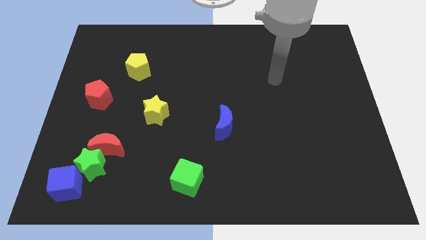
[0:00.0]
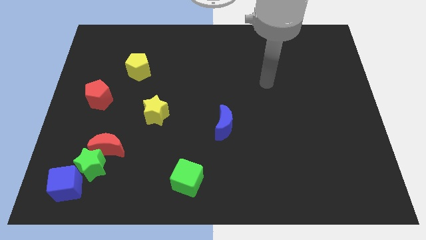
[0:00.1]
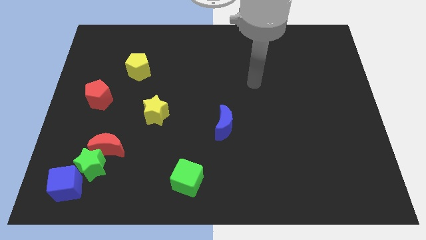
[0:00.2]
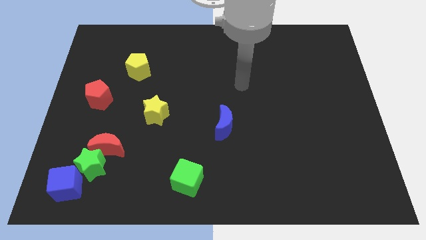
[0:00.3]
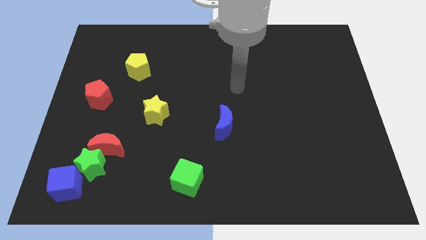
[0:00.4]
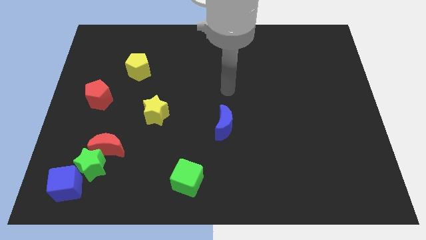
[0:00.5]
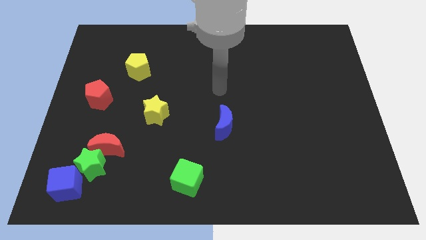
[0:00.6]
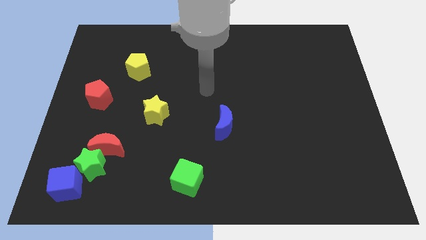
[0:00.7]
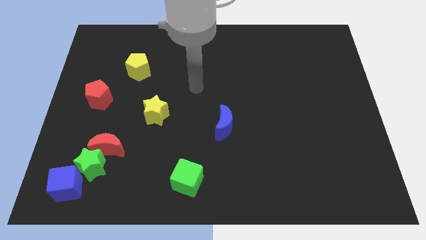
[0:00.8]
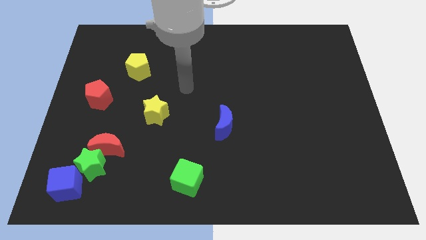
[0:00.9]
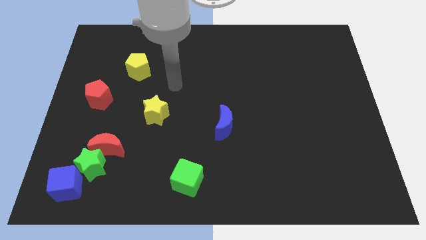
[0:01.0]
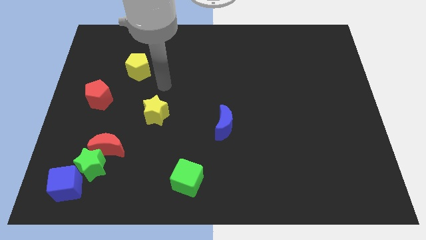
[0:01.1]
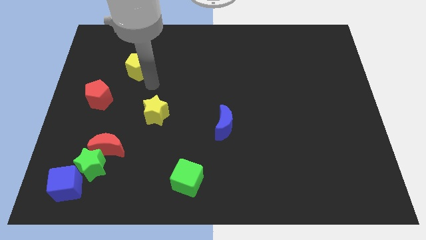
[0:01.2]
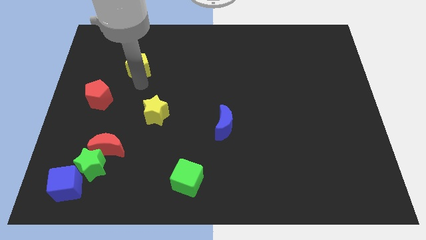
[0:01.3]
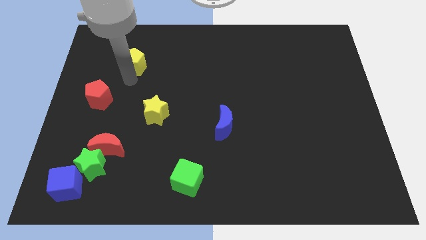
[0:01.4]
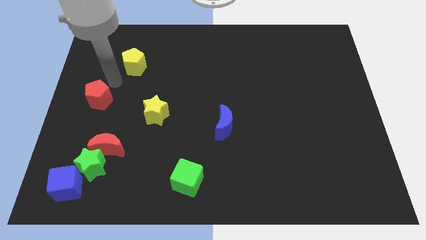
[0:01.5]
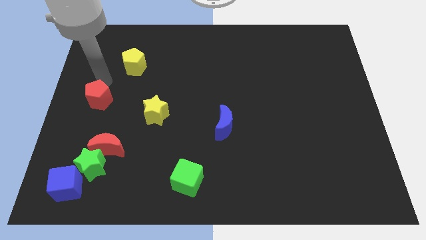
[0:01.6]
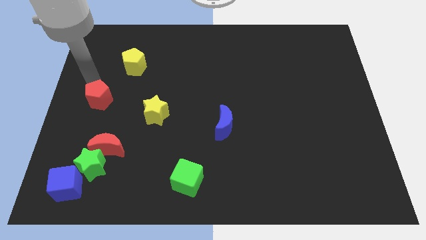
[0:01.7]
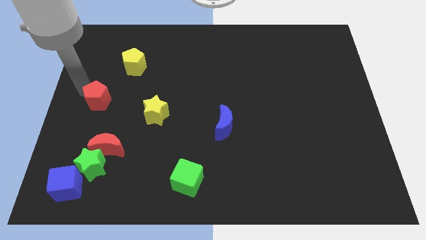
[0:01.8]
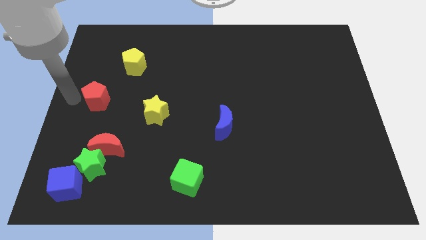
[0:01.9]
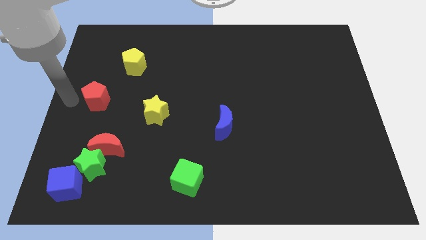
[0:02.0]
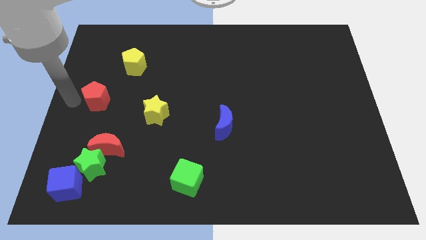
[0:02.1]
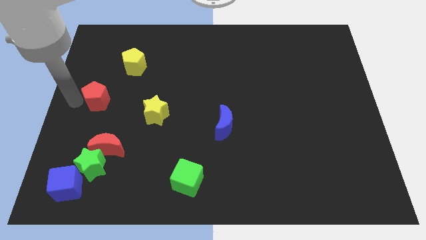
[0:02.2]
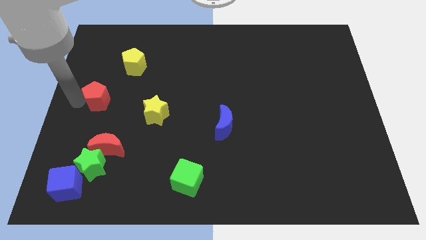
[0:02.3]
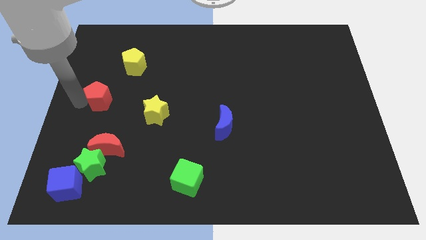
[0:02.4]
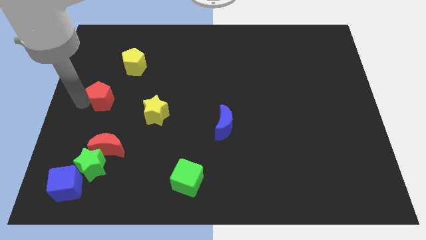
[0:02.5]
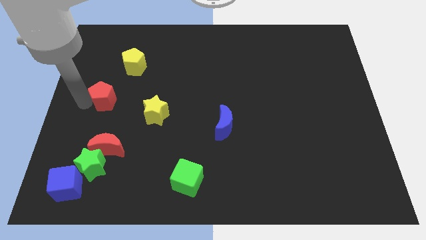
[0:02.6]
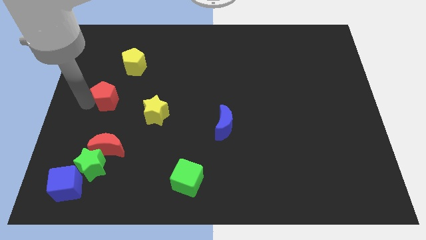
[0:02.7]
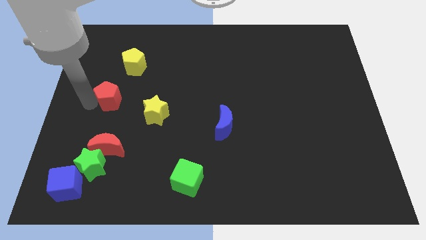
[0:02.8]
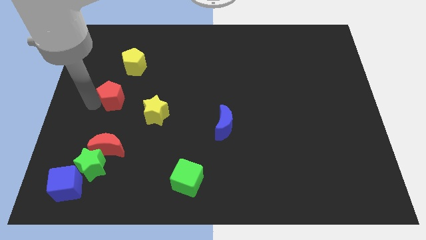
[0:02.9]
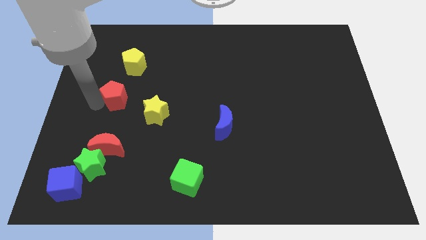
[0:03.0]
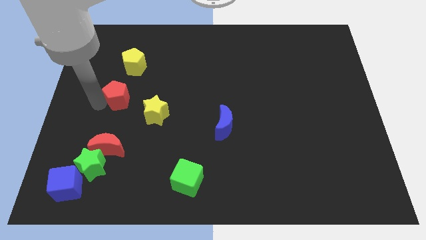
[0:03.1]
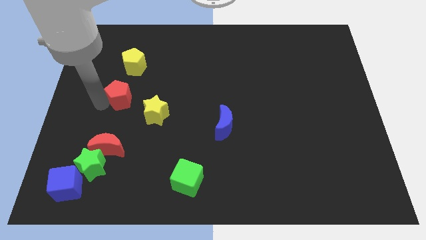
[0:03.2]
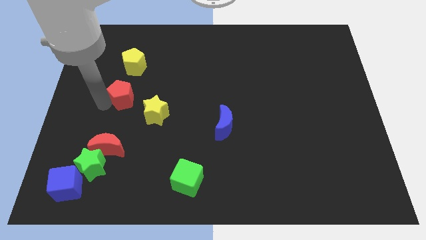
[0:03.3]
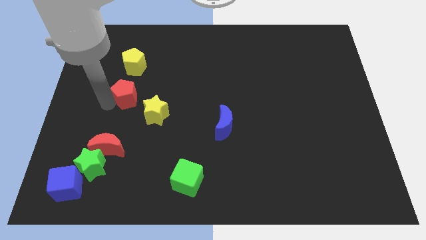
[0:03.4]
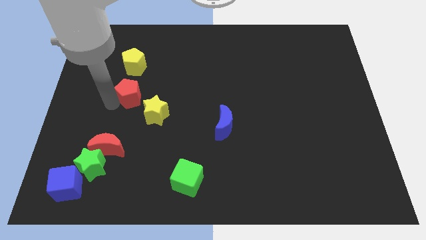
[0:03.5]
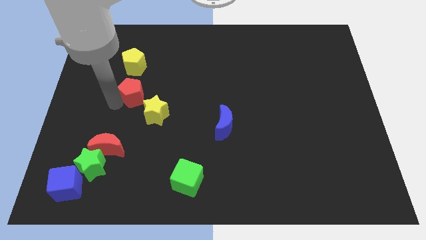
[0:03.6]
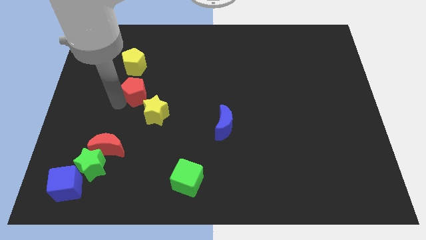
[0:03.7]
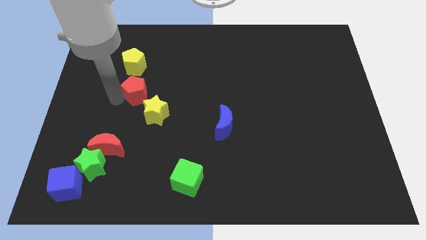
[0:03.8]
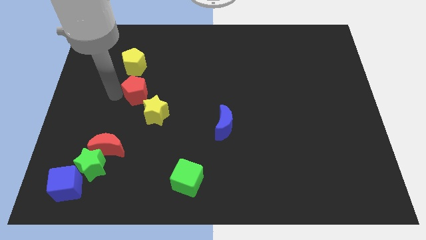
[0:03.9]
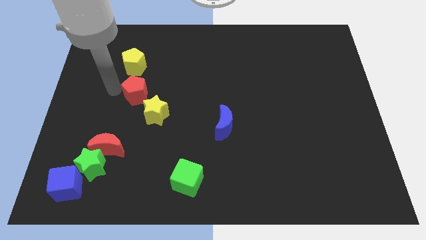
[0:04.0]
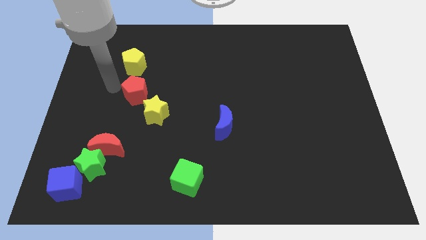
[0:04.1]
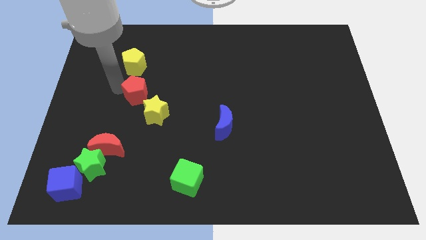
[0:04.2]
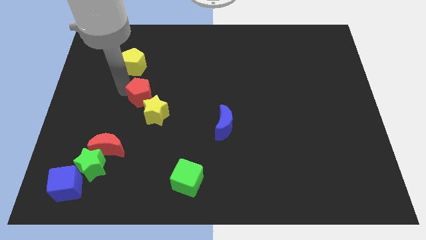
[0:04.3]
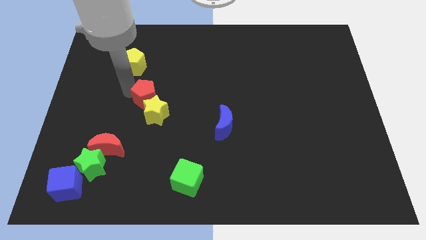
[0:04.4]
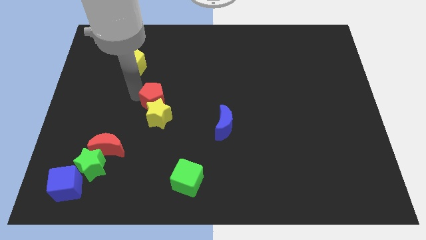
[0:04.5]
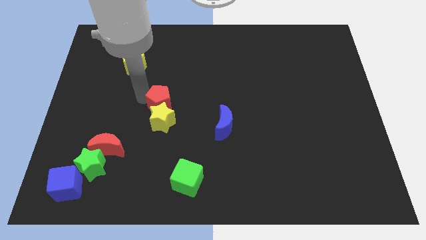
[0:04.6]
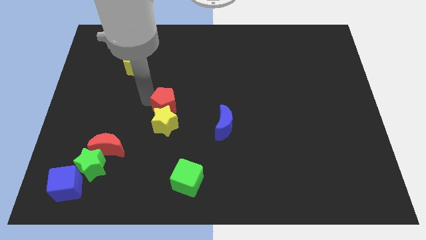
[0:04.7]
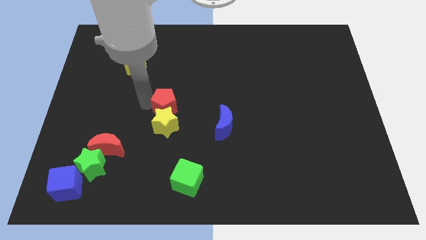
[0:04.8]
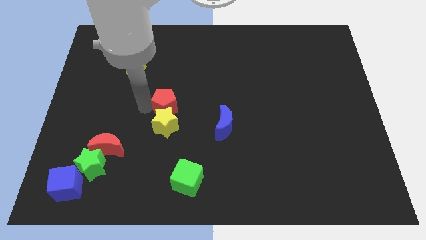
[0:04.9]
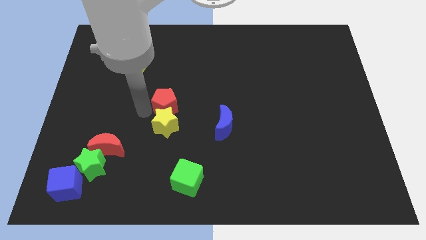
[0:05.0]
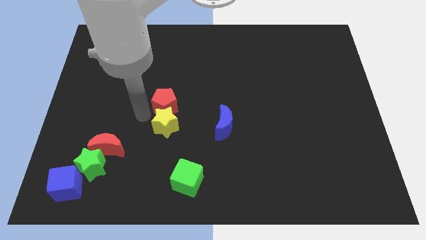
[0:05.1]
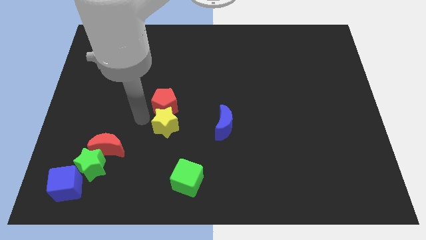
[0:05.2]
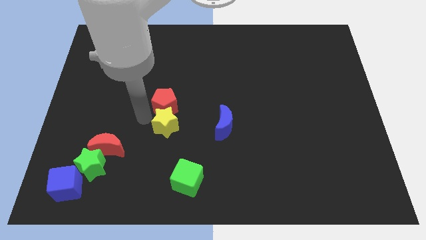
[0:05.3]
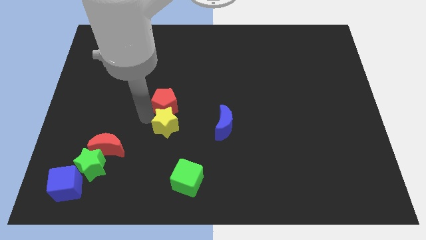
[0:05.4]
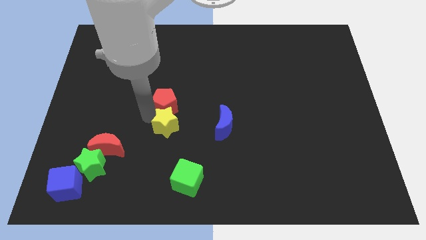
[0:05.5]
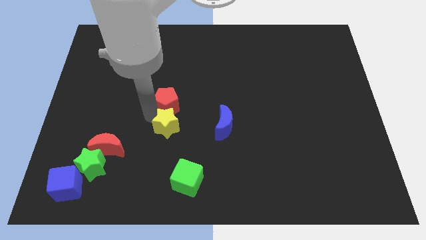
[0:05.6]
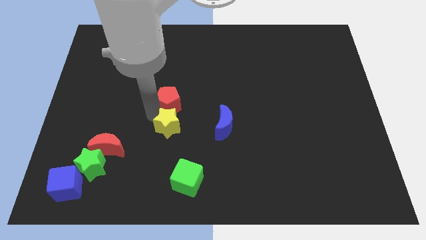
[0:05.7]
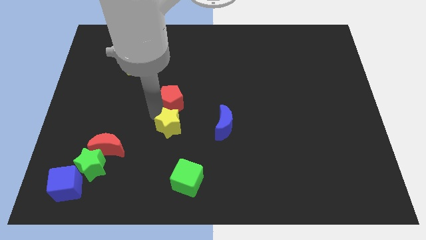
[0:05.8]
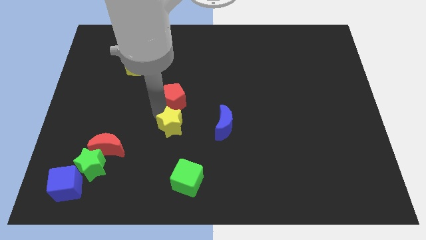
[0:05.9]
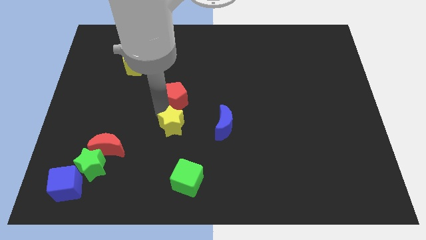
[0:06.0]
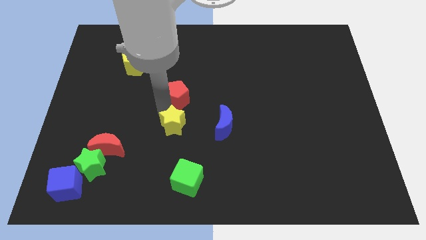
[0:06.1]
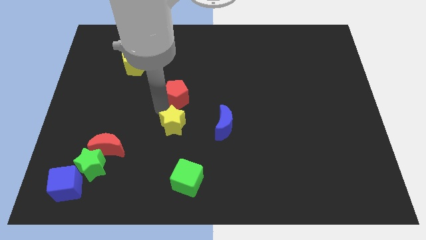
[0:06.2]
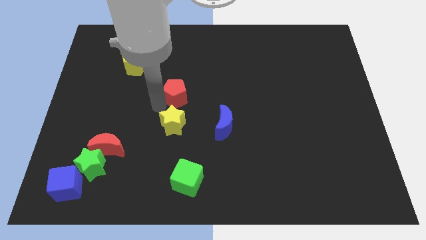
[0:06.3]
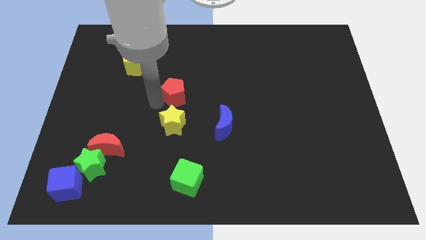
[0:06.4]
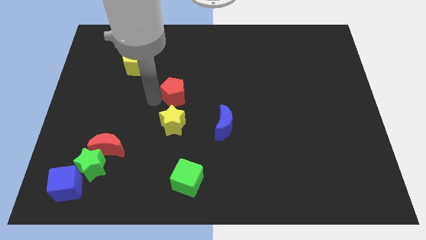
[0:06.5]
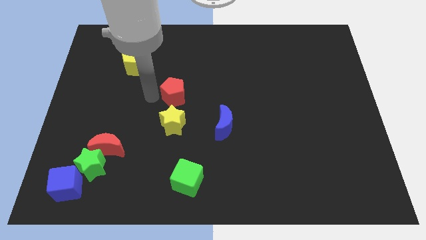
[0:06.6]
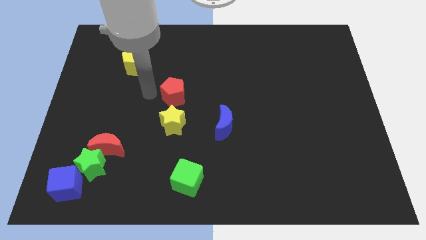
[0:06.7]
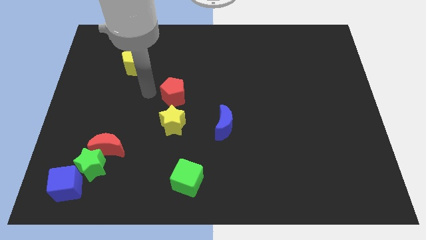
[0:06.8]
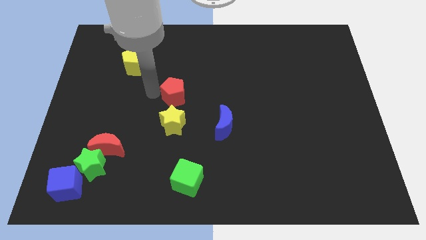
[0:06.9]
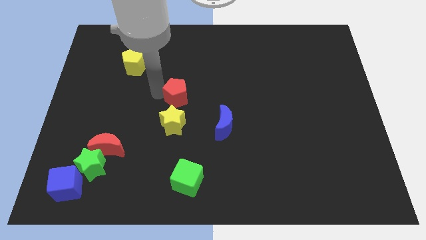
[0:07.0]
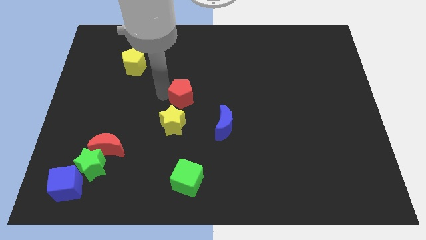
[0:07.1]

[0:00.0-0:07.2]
slide the red pentagon right

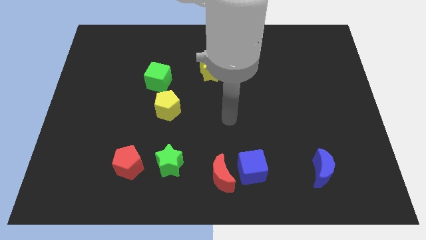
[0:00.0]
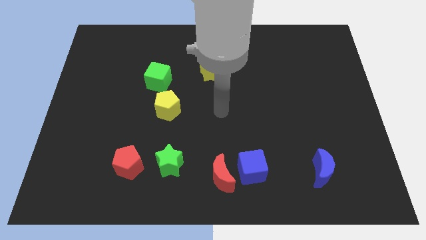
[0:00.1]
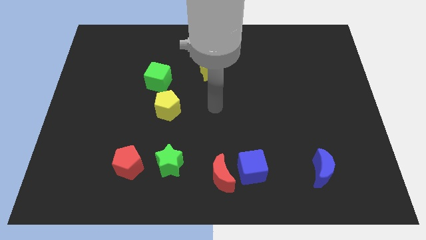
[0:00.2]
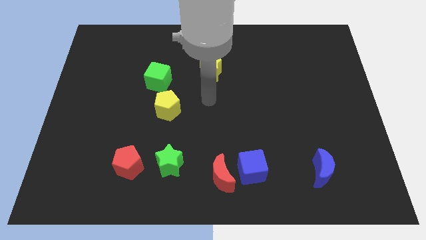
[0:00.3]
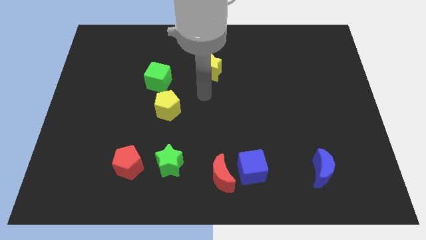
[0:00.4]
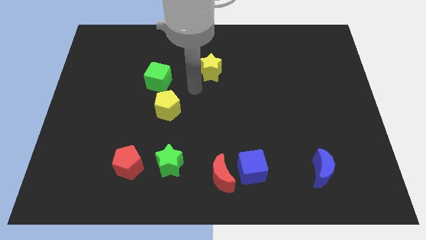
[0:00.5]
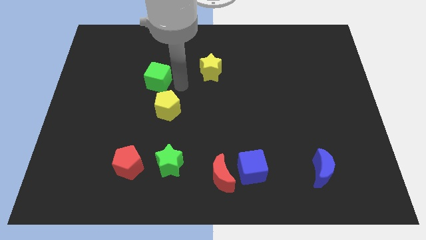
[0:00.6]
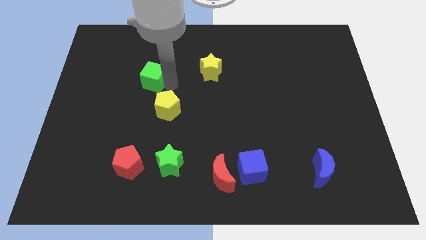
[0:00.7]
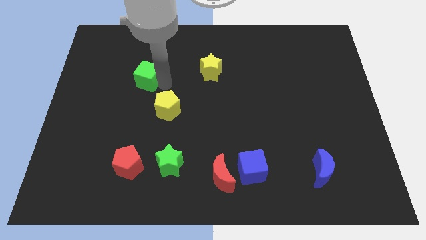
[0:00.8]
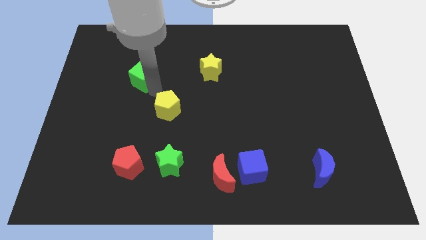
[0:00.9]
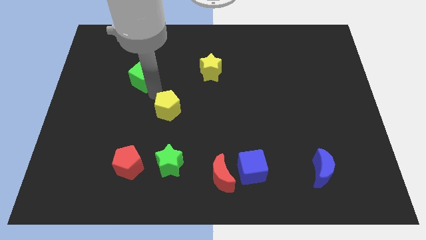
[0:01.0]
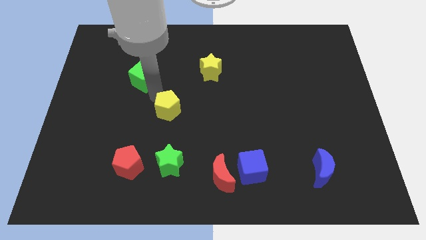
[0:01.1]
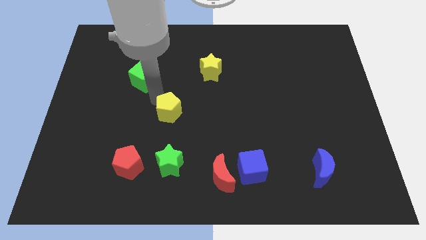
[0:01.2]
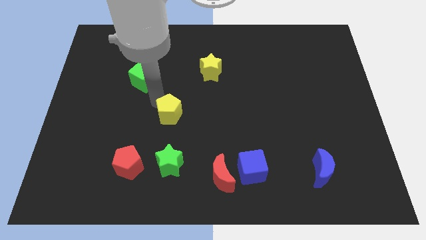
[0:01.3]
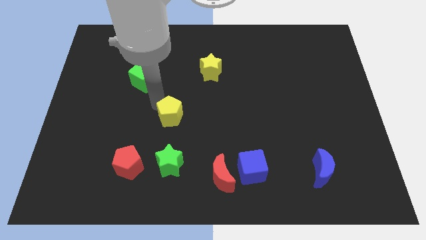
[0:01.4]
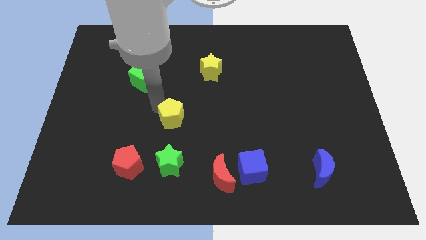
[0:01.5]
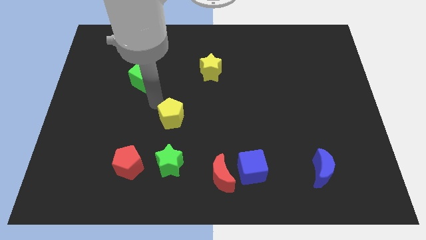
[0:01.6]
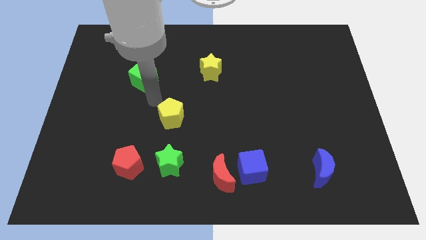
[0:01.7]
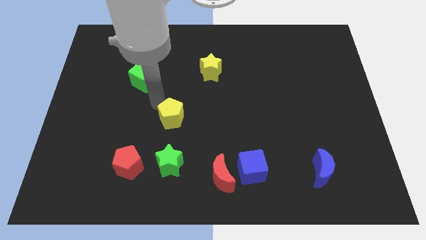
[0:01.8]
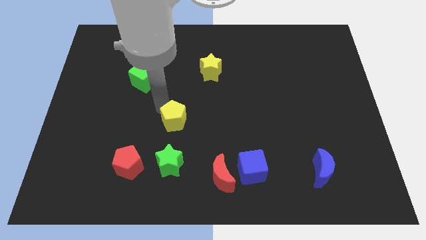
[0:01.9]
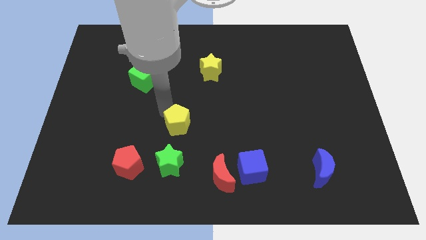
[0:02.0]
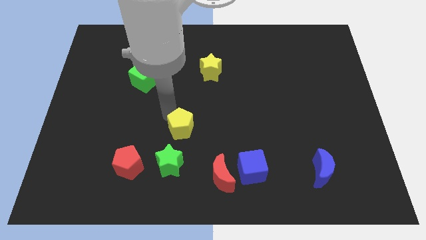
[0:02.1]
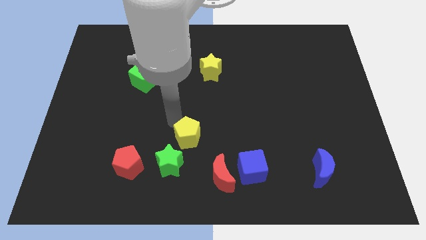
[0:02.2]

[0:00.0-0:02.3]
slide the yellow pentagon somewhat down and then right
